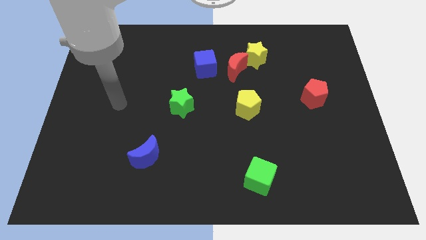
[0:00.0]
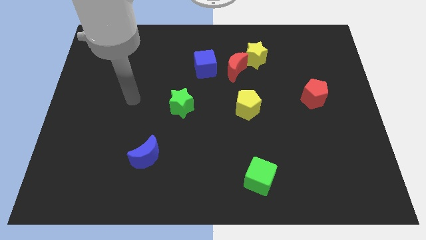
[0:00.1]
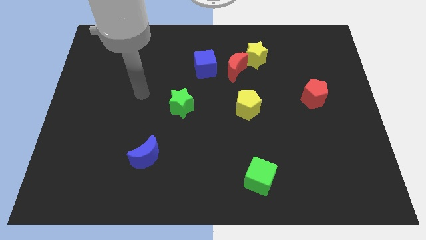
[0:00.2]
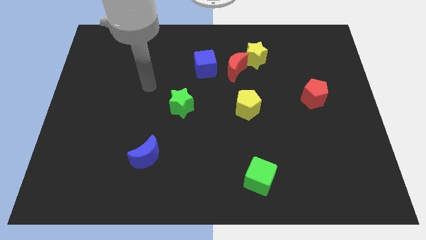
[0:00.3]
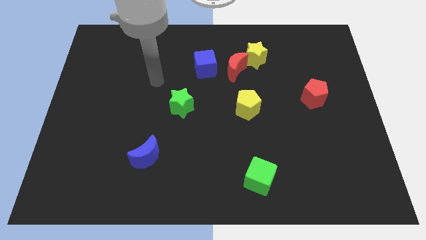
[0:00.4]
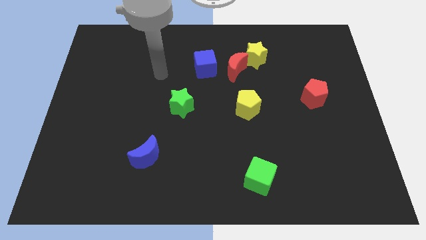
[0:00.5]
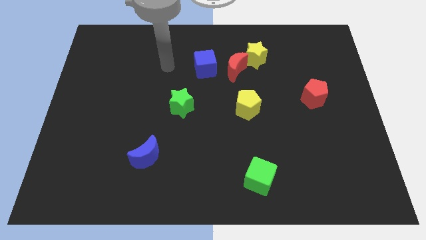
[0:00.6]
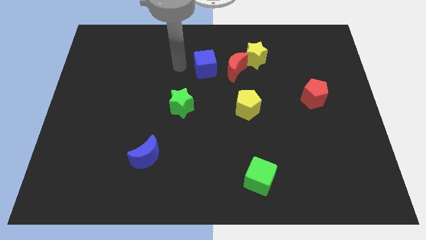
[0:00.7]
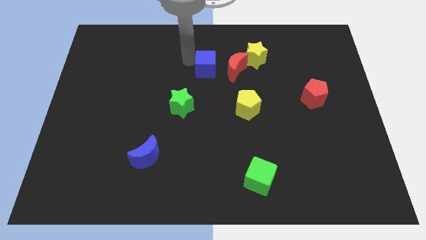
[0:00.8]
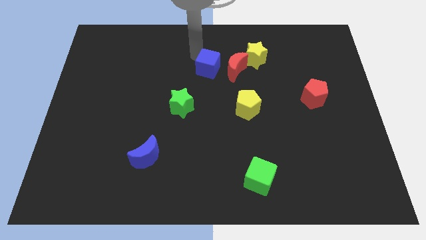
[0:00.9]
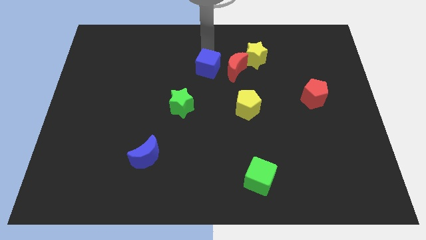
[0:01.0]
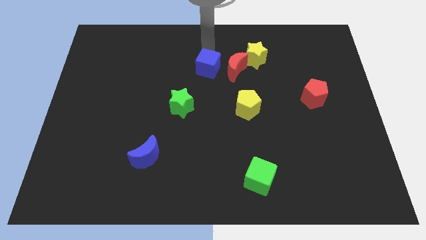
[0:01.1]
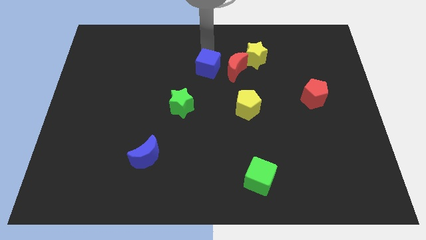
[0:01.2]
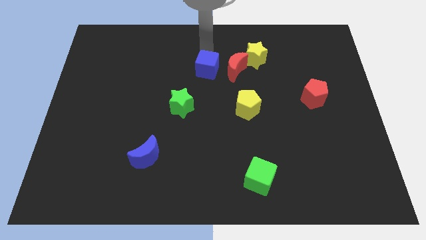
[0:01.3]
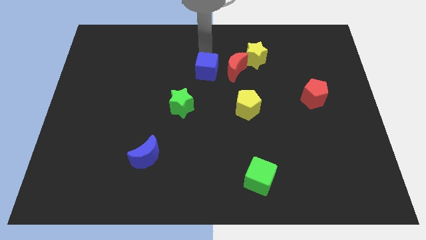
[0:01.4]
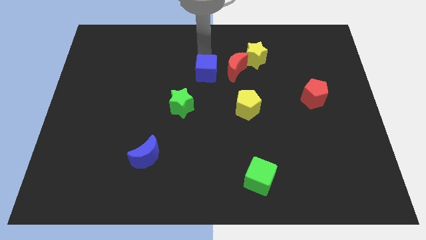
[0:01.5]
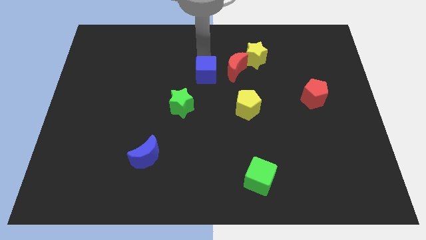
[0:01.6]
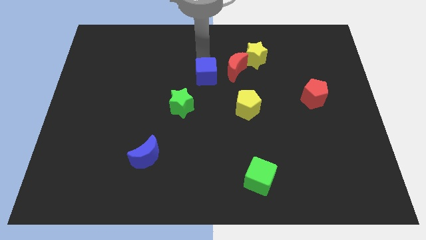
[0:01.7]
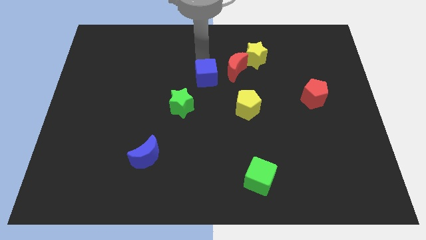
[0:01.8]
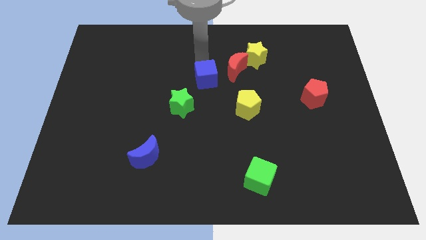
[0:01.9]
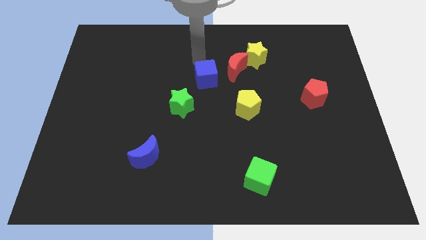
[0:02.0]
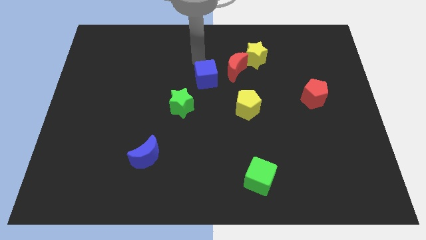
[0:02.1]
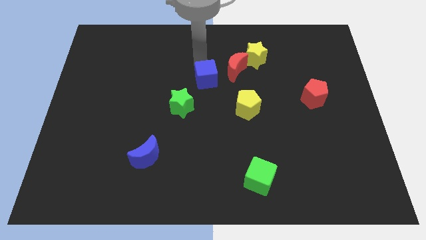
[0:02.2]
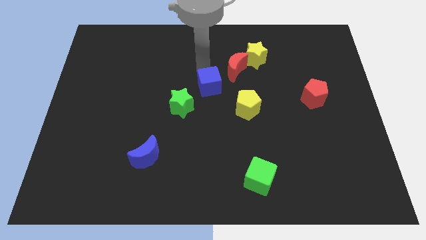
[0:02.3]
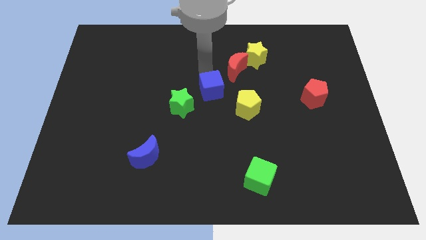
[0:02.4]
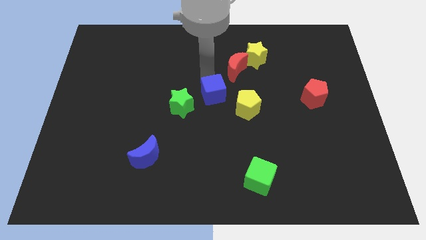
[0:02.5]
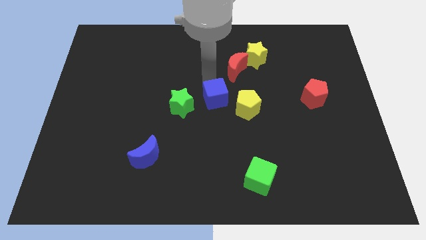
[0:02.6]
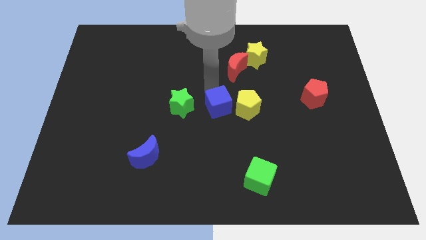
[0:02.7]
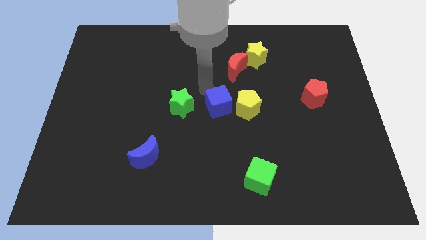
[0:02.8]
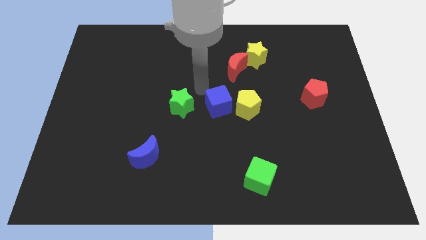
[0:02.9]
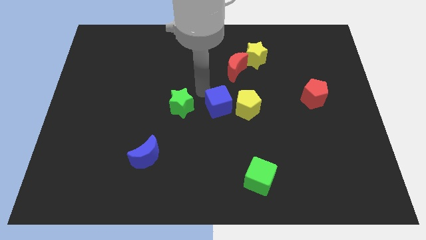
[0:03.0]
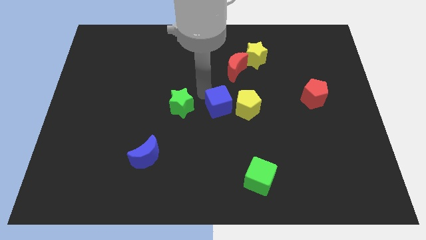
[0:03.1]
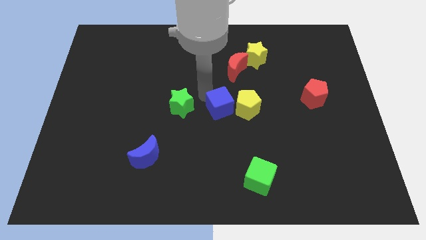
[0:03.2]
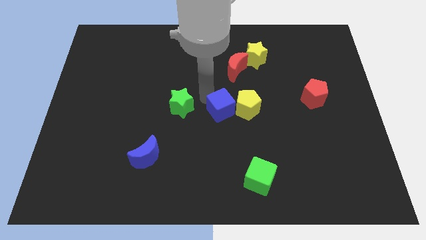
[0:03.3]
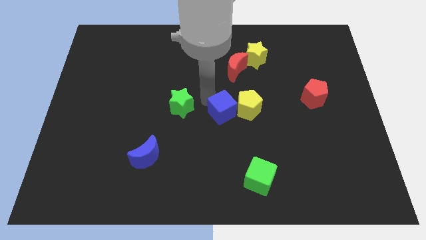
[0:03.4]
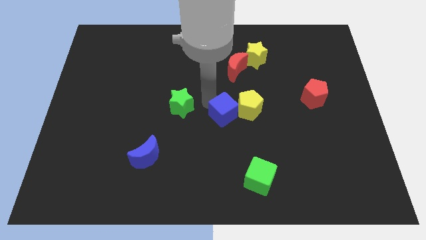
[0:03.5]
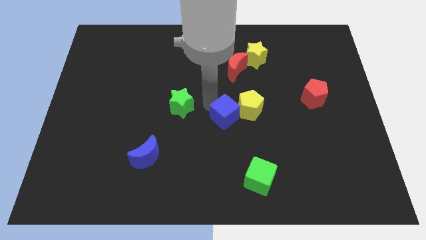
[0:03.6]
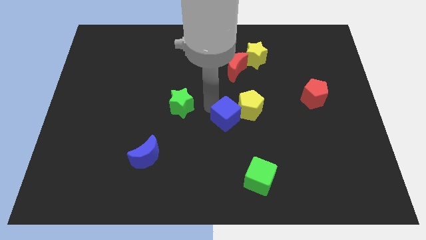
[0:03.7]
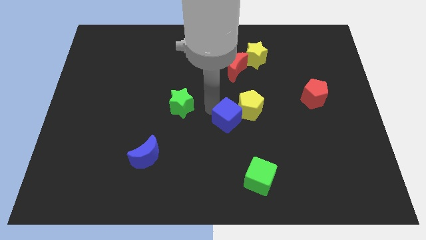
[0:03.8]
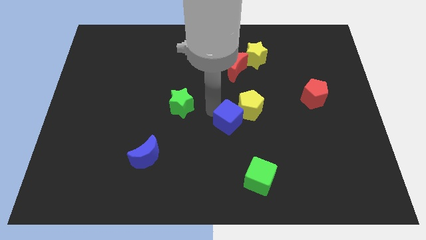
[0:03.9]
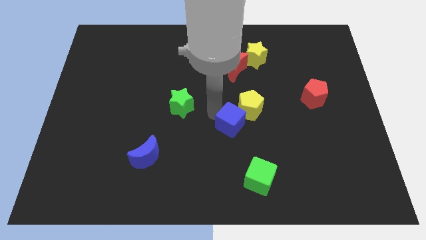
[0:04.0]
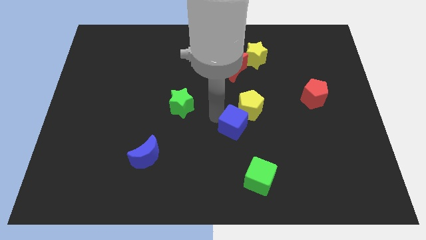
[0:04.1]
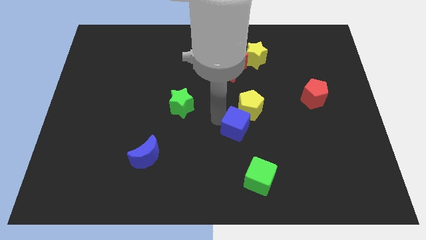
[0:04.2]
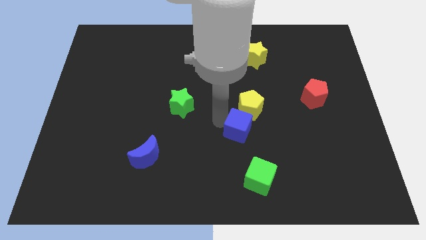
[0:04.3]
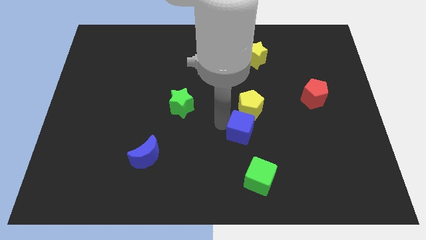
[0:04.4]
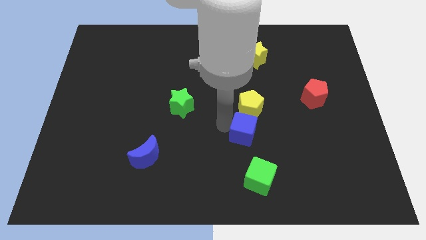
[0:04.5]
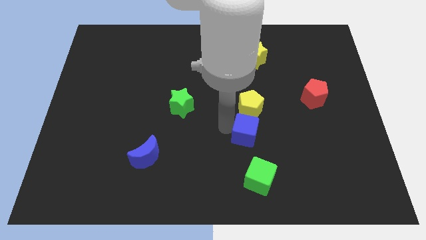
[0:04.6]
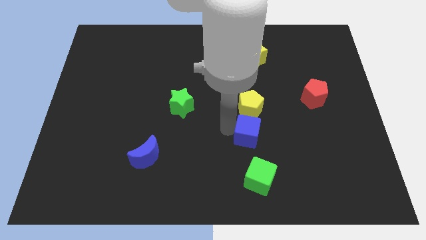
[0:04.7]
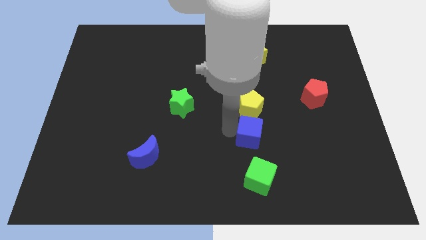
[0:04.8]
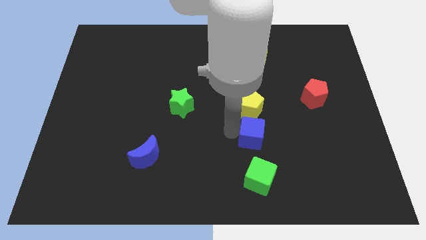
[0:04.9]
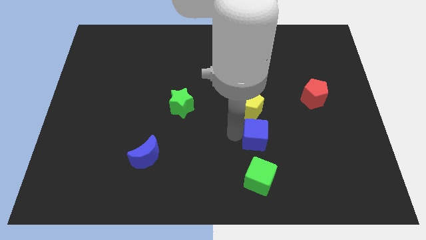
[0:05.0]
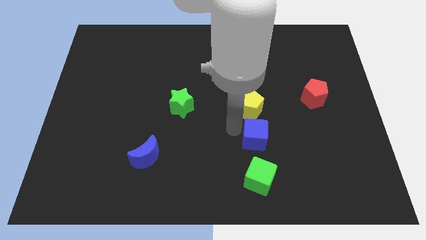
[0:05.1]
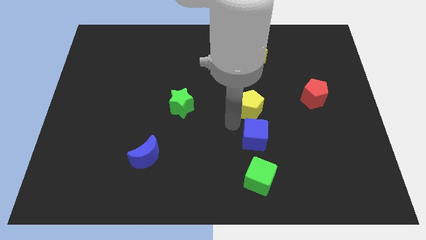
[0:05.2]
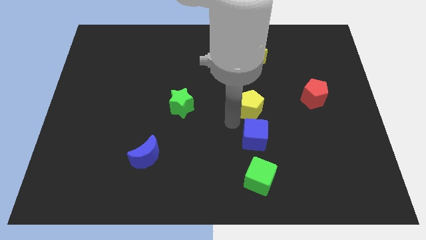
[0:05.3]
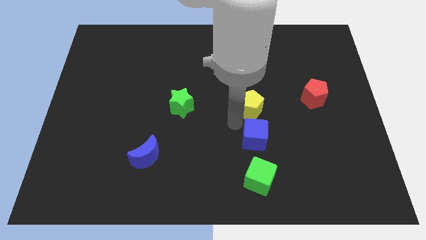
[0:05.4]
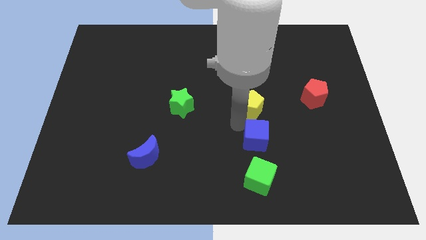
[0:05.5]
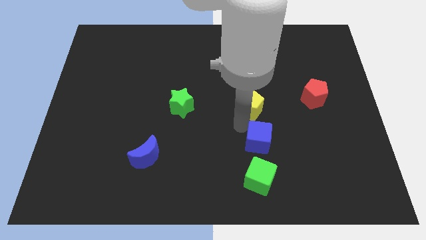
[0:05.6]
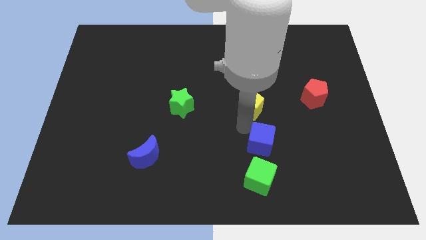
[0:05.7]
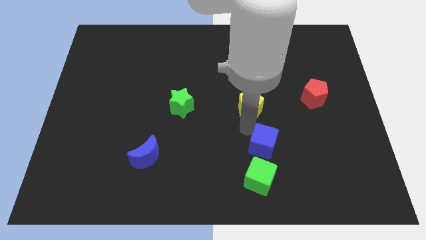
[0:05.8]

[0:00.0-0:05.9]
slide the blue cube to the top right of the green cube

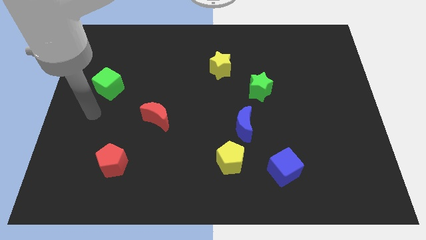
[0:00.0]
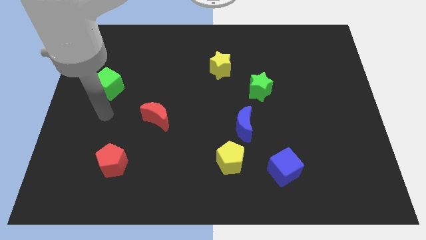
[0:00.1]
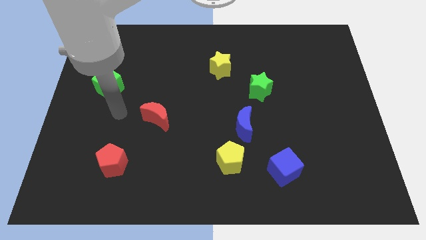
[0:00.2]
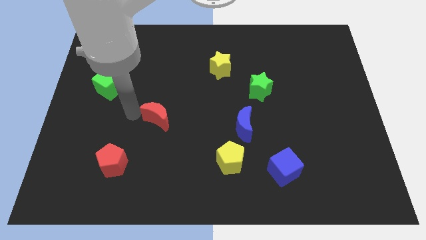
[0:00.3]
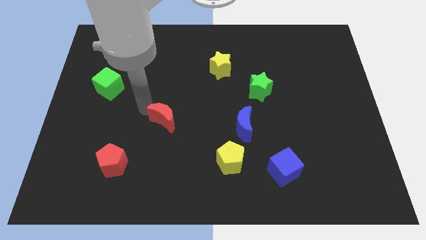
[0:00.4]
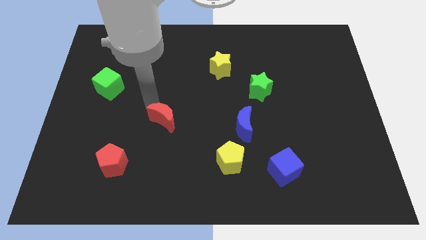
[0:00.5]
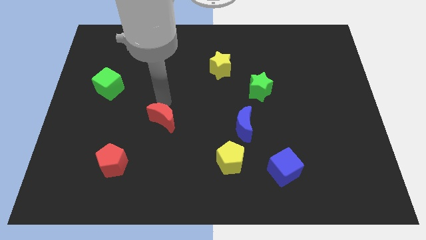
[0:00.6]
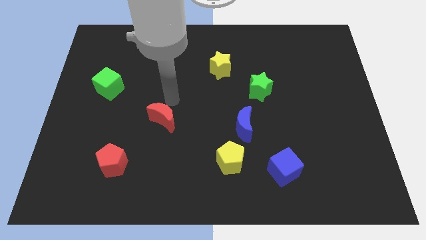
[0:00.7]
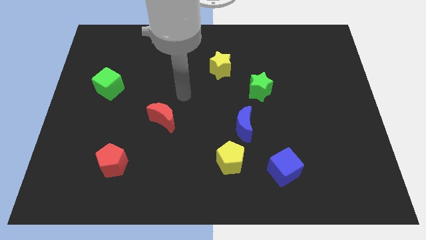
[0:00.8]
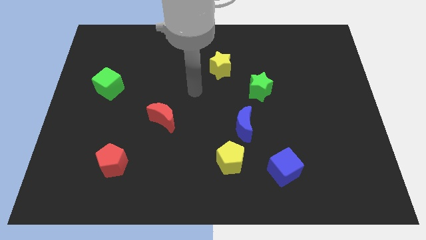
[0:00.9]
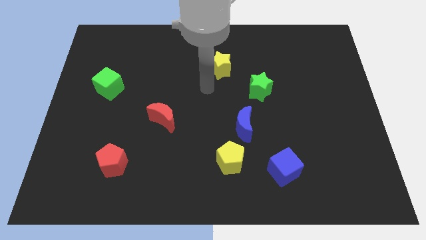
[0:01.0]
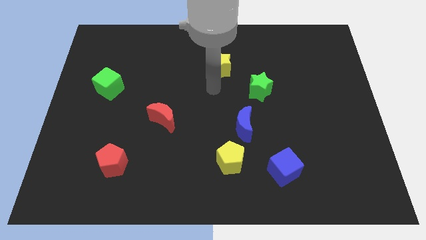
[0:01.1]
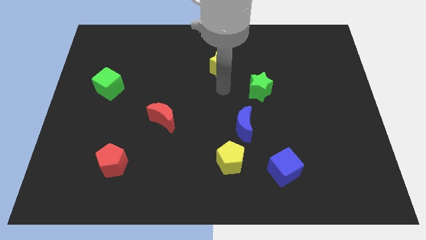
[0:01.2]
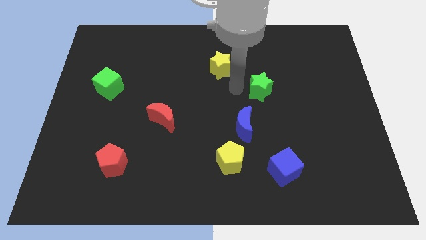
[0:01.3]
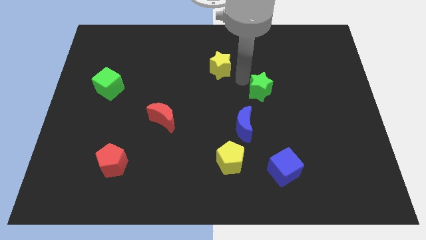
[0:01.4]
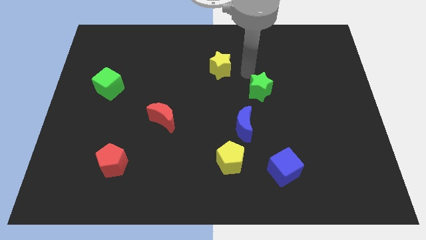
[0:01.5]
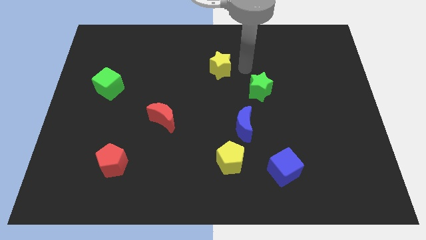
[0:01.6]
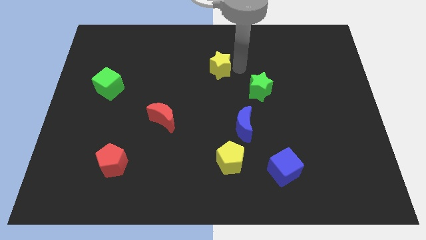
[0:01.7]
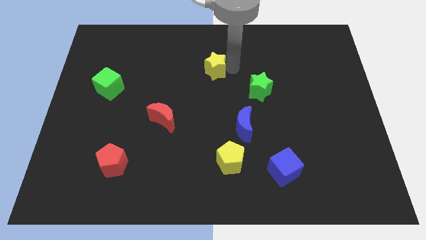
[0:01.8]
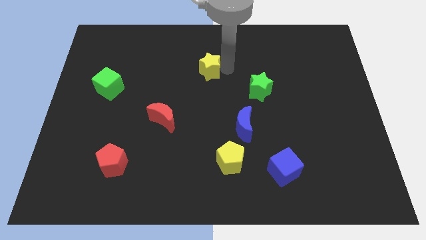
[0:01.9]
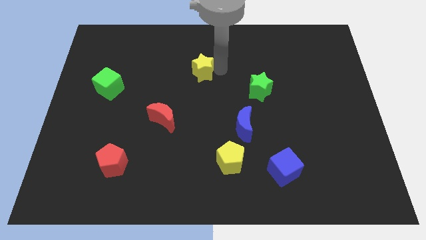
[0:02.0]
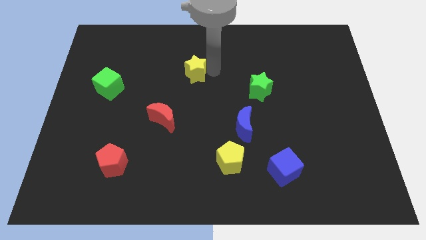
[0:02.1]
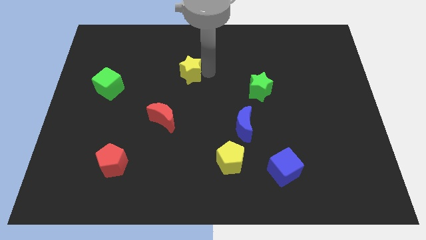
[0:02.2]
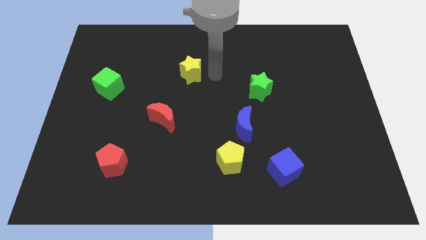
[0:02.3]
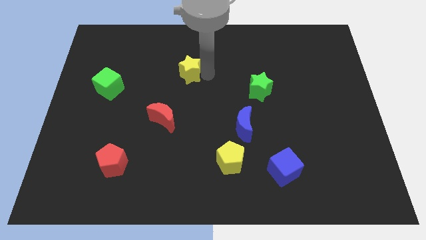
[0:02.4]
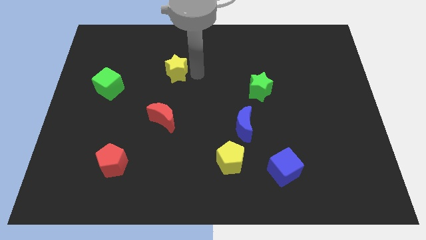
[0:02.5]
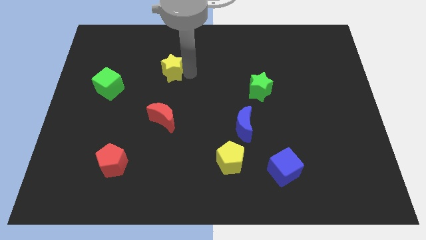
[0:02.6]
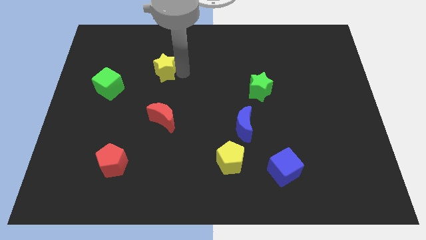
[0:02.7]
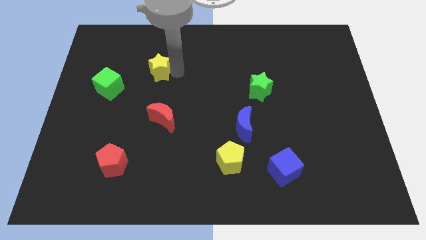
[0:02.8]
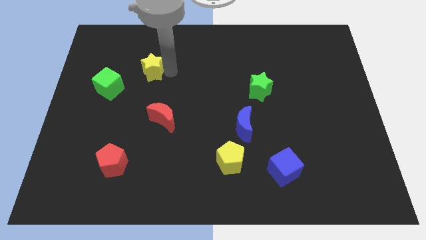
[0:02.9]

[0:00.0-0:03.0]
push the yellow star to the top right of the green cube
